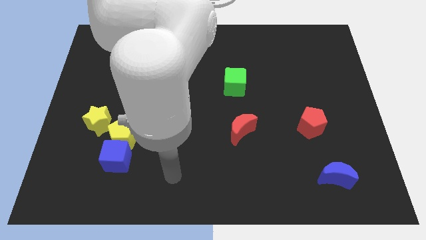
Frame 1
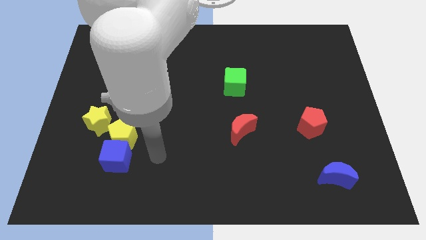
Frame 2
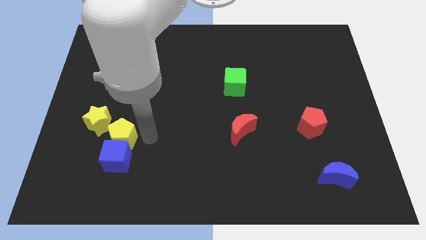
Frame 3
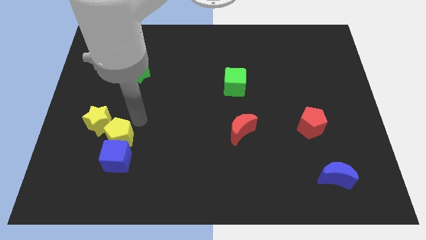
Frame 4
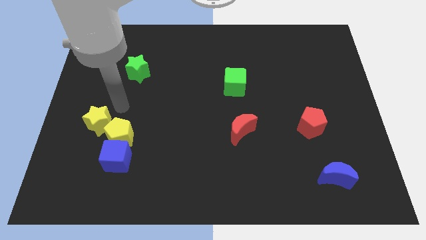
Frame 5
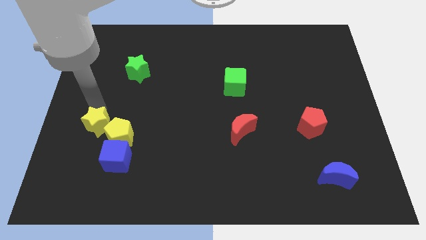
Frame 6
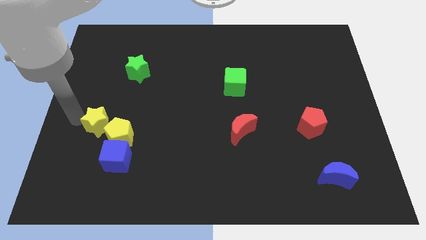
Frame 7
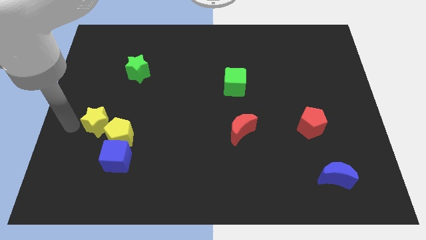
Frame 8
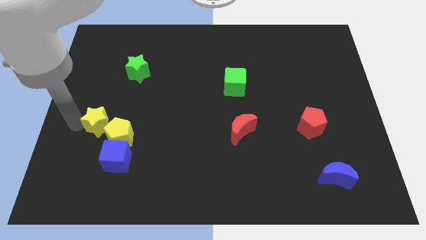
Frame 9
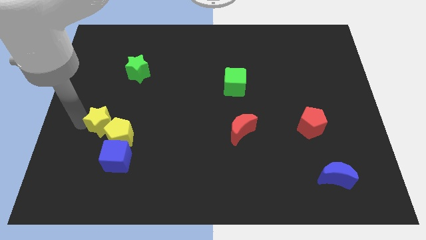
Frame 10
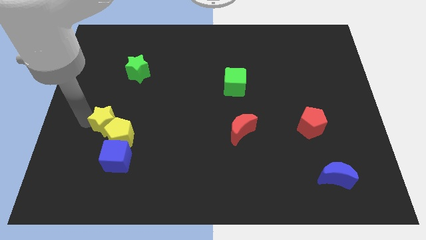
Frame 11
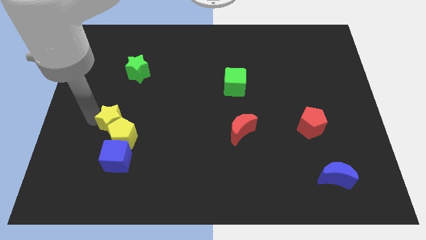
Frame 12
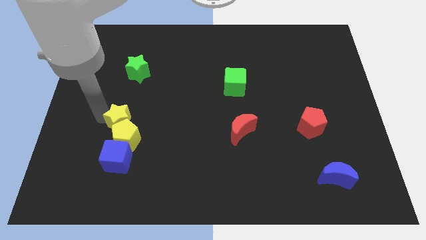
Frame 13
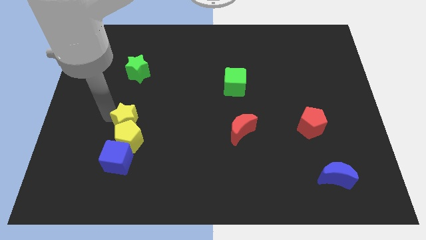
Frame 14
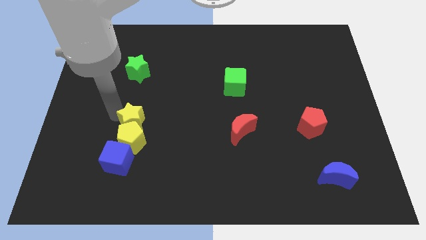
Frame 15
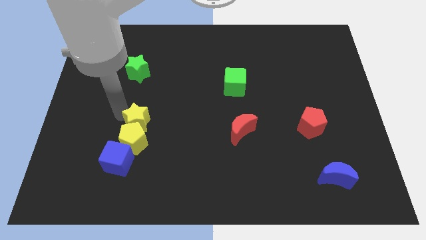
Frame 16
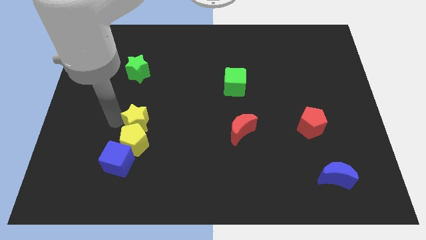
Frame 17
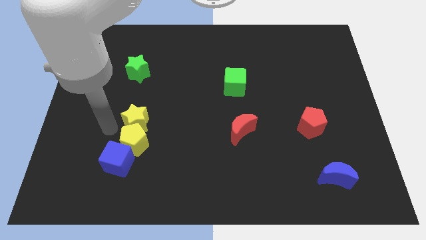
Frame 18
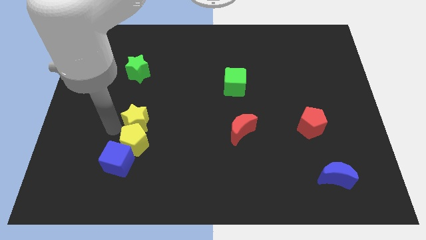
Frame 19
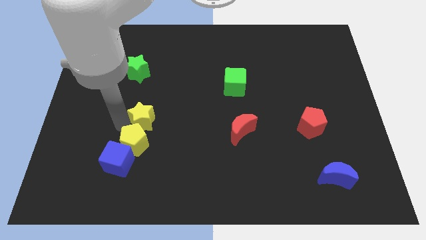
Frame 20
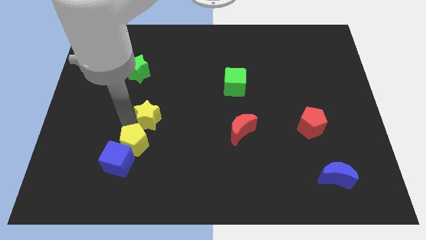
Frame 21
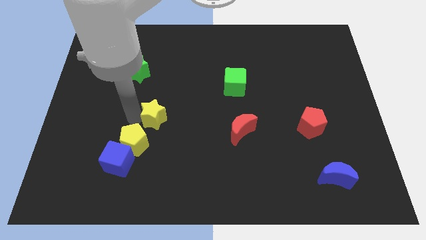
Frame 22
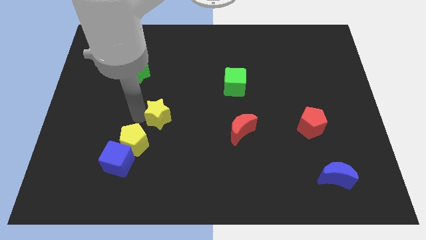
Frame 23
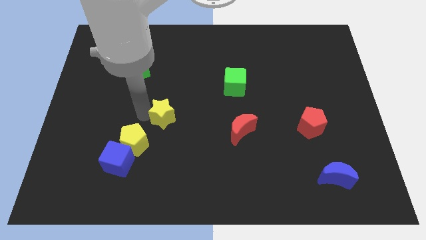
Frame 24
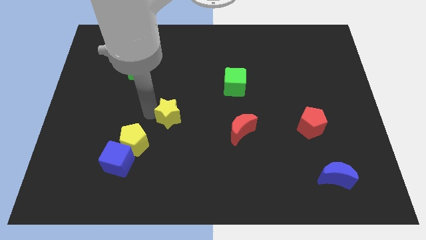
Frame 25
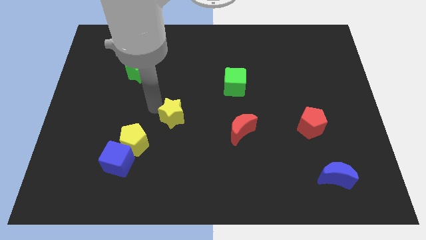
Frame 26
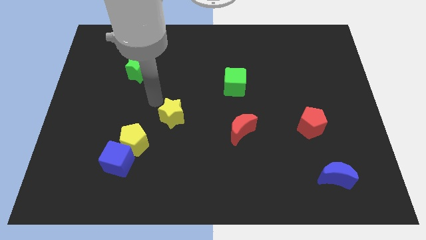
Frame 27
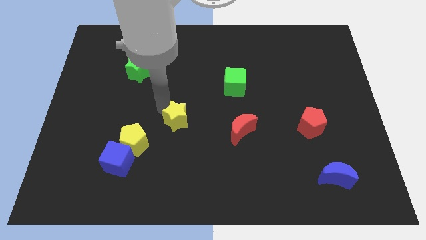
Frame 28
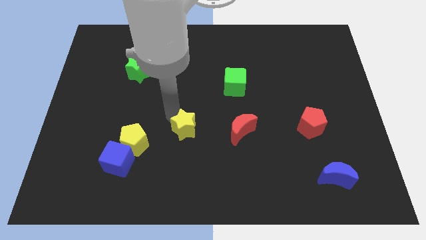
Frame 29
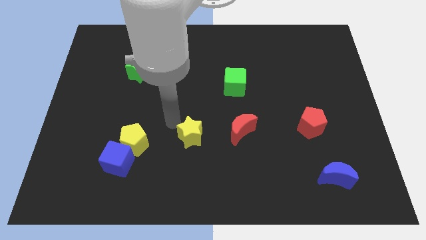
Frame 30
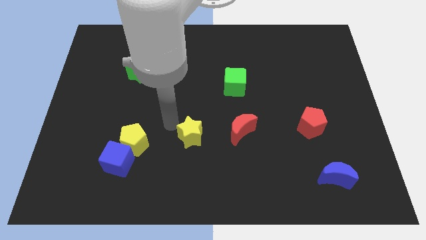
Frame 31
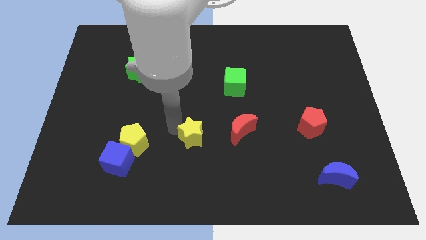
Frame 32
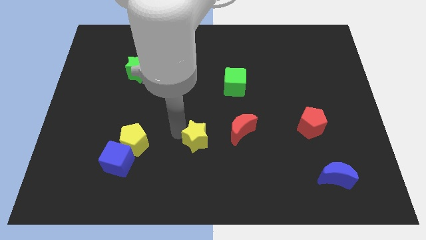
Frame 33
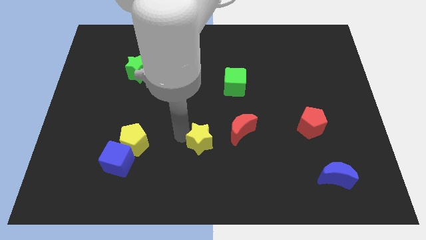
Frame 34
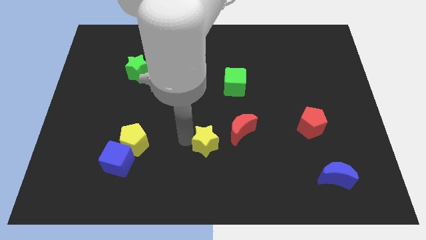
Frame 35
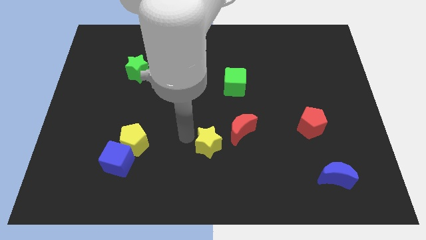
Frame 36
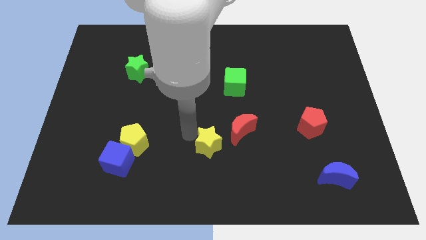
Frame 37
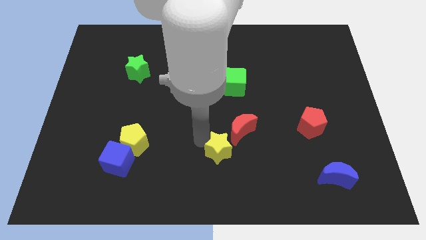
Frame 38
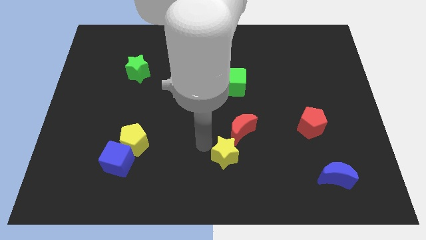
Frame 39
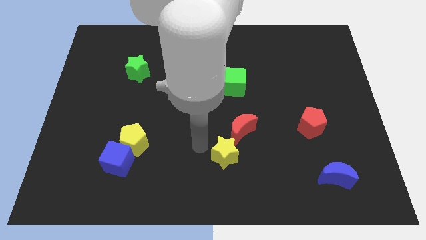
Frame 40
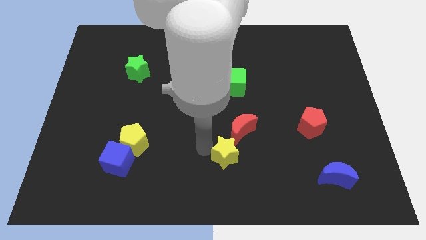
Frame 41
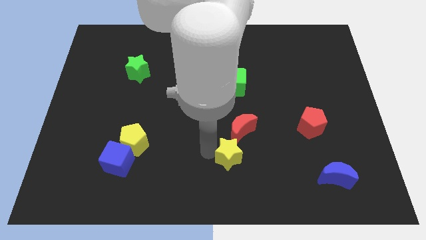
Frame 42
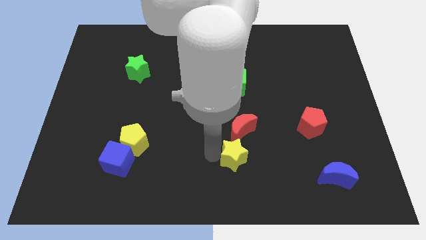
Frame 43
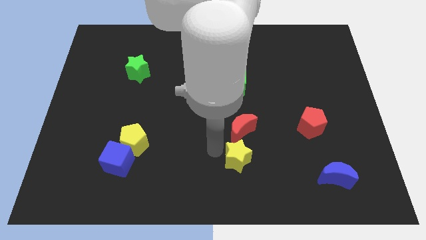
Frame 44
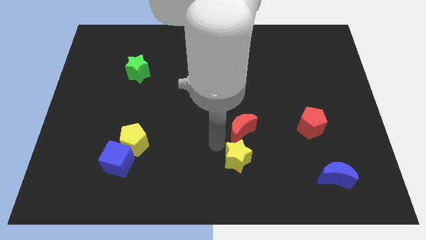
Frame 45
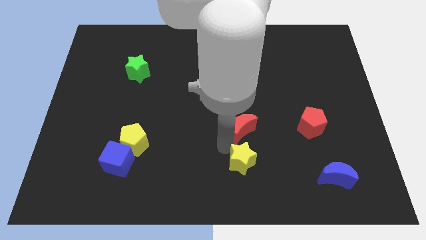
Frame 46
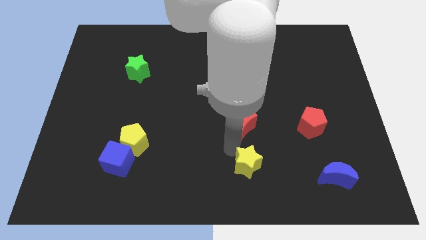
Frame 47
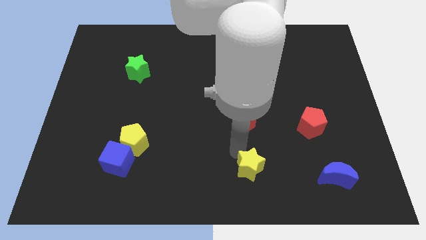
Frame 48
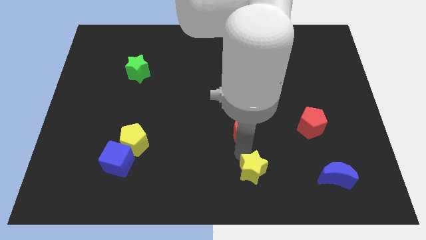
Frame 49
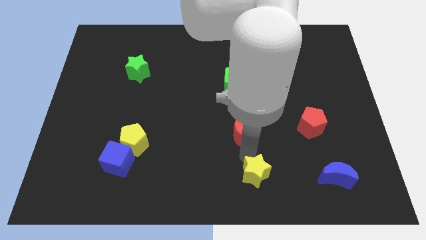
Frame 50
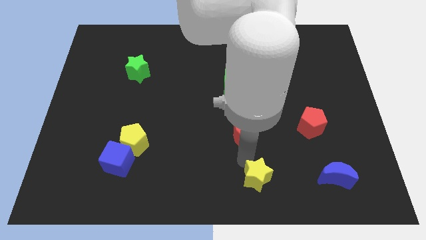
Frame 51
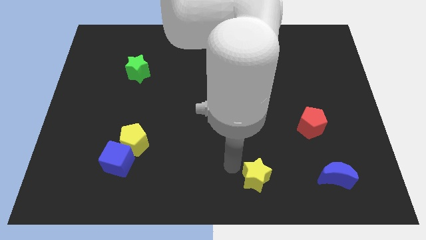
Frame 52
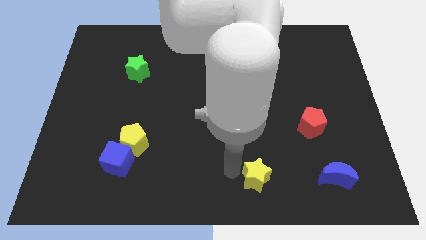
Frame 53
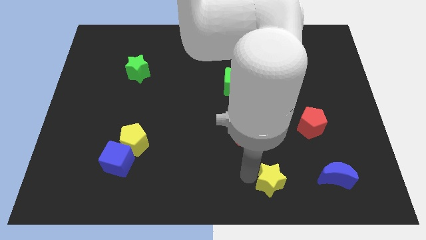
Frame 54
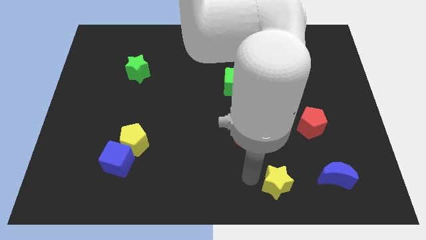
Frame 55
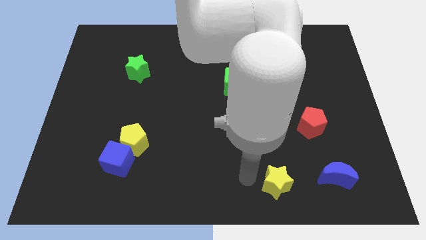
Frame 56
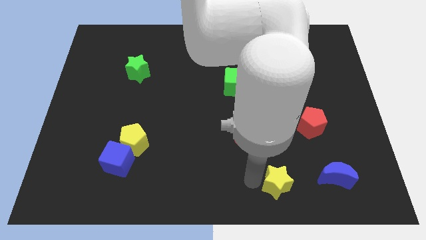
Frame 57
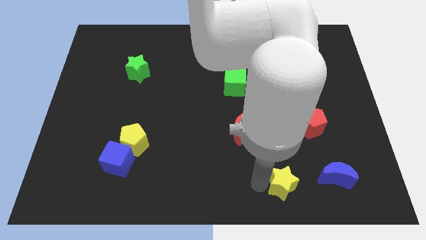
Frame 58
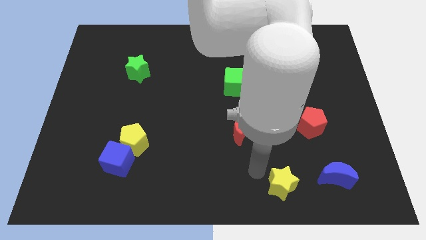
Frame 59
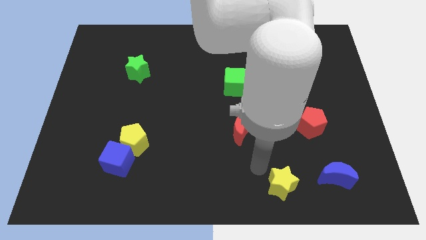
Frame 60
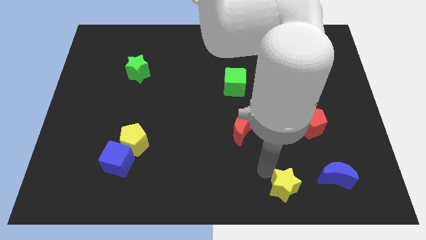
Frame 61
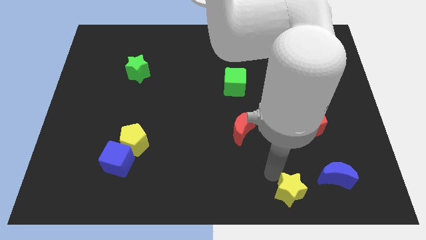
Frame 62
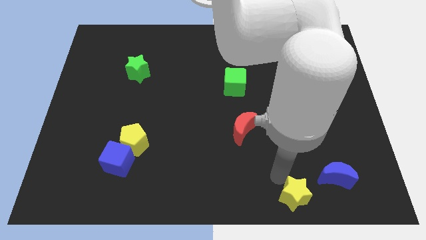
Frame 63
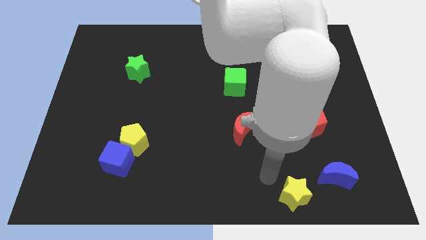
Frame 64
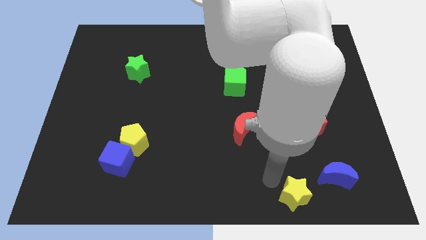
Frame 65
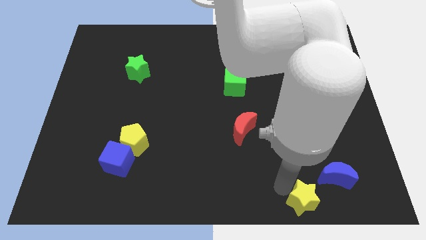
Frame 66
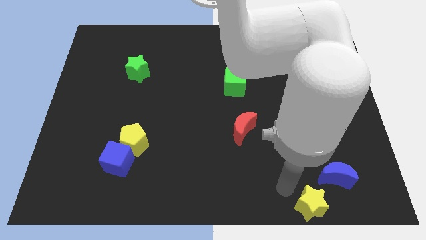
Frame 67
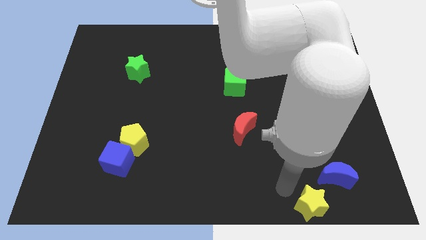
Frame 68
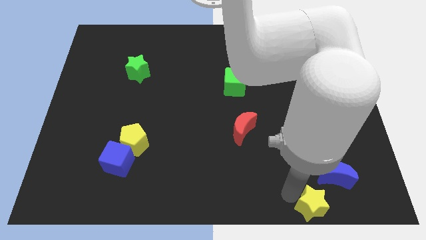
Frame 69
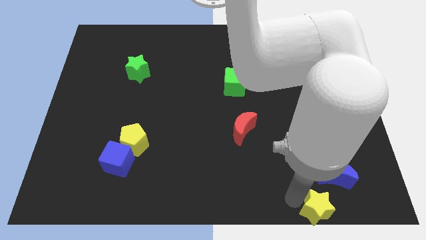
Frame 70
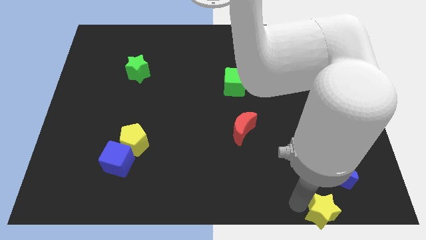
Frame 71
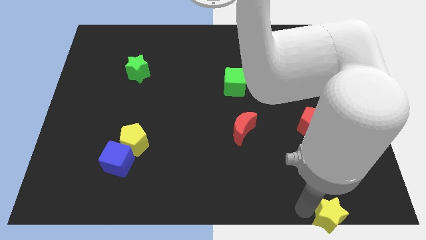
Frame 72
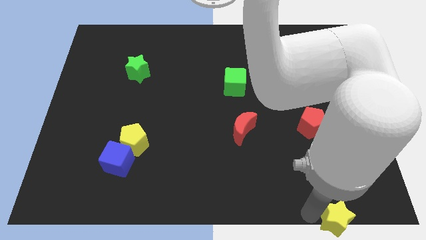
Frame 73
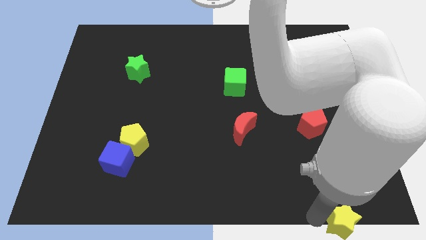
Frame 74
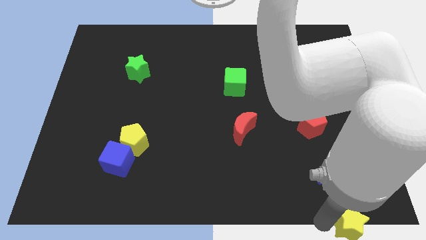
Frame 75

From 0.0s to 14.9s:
put the yellow star to the lower right corner
